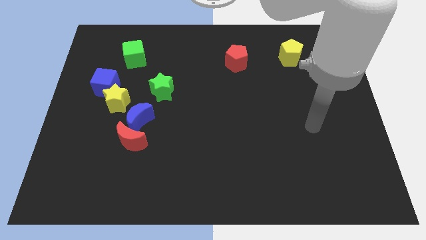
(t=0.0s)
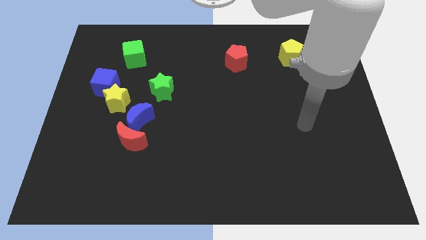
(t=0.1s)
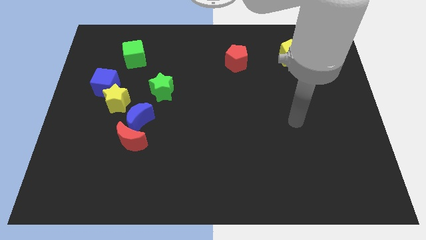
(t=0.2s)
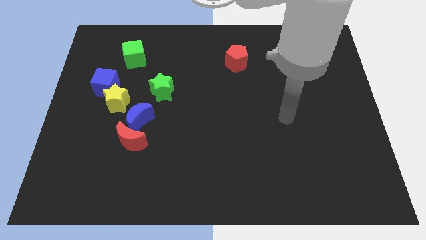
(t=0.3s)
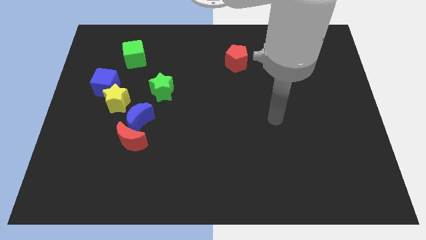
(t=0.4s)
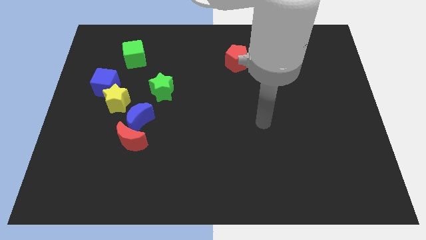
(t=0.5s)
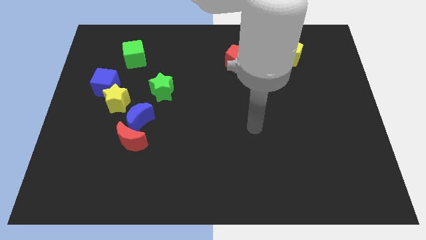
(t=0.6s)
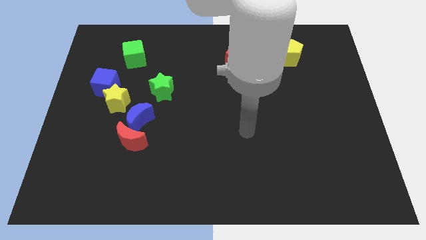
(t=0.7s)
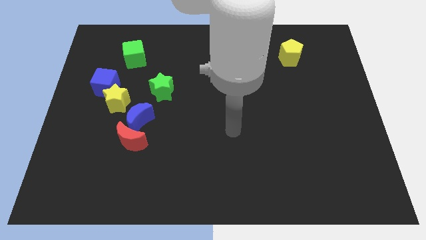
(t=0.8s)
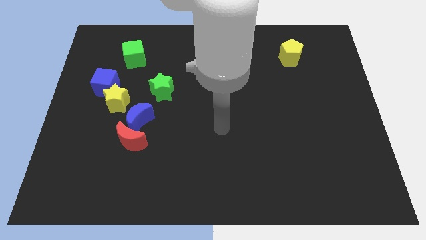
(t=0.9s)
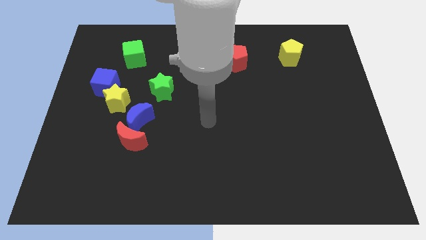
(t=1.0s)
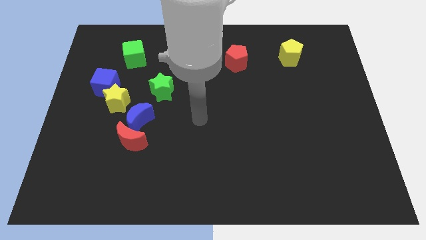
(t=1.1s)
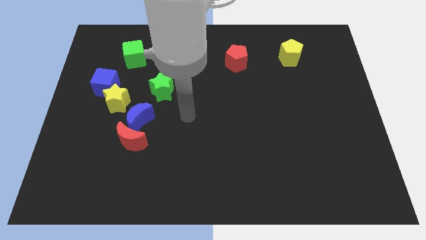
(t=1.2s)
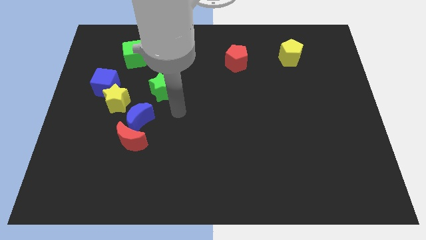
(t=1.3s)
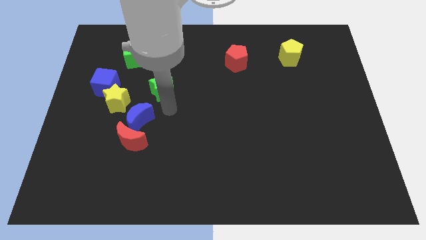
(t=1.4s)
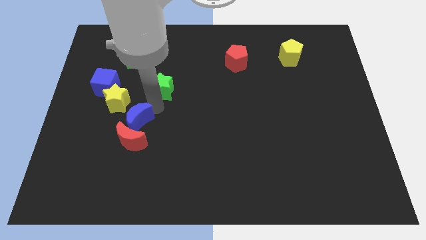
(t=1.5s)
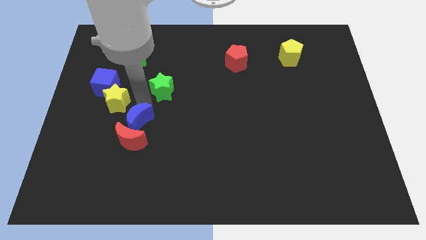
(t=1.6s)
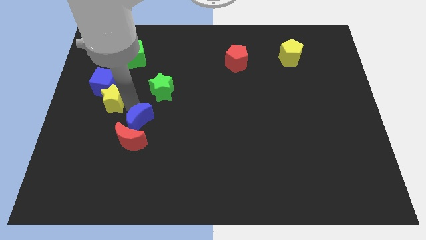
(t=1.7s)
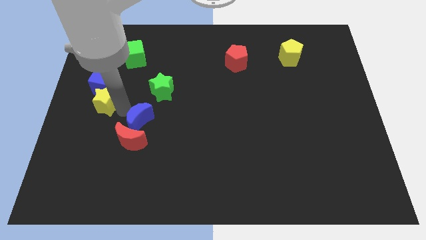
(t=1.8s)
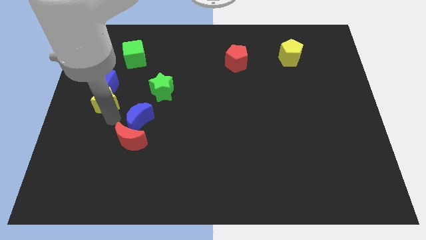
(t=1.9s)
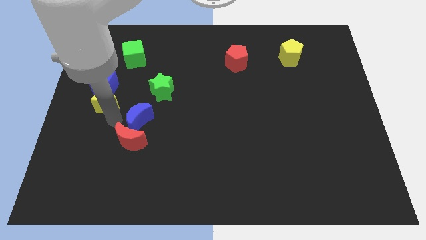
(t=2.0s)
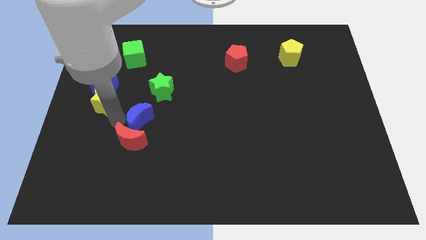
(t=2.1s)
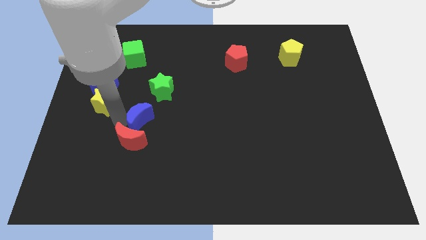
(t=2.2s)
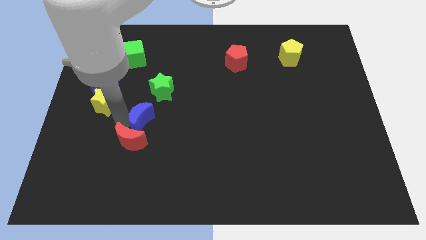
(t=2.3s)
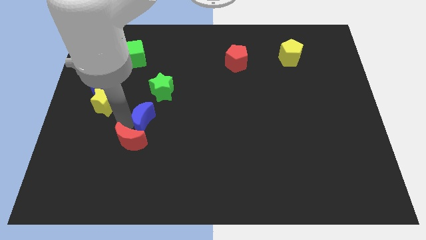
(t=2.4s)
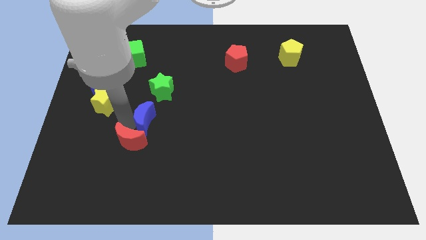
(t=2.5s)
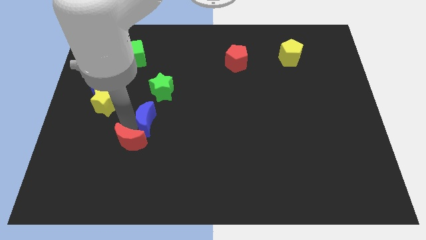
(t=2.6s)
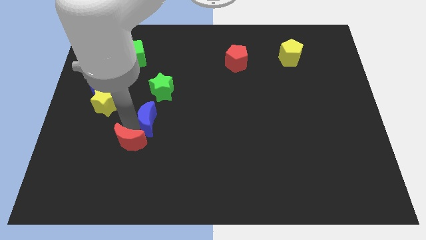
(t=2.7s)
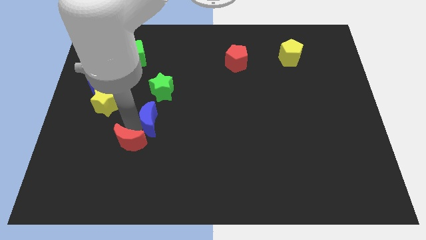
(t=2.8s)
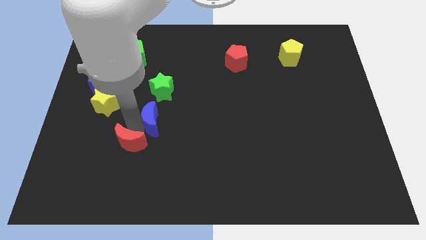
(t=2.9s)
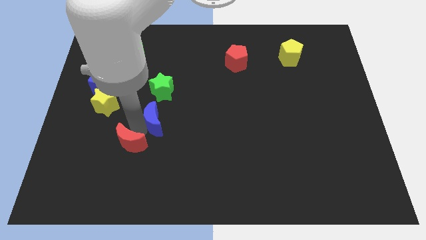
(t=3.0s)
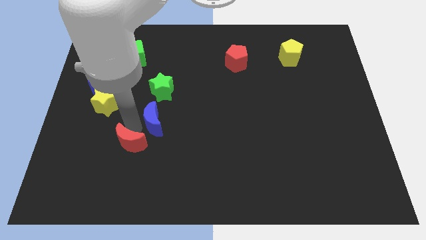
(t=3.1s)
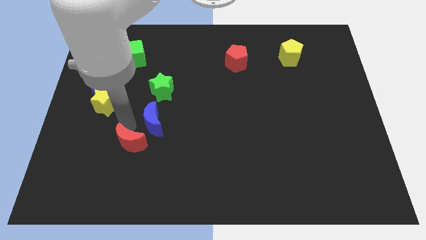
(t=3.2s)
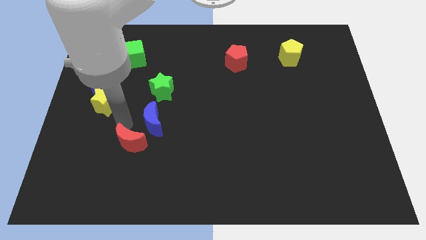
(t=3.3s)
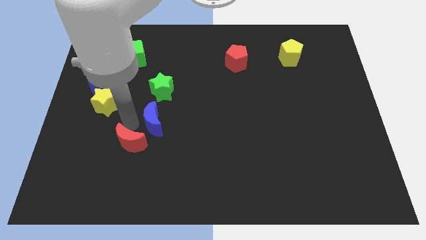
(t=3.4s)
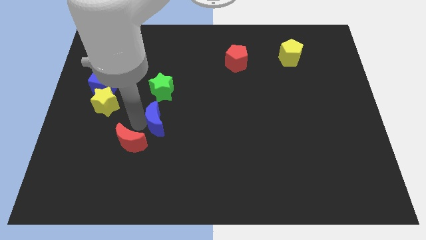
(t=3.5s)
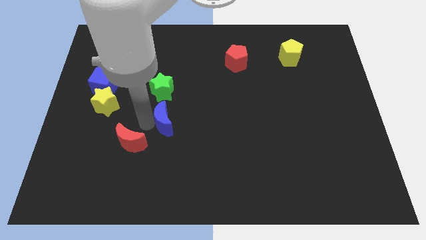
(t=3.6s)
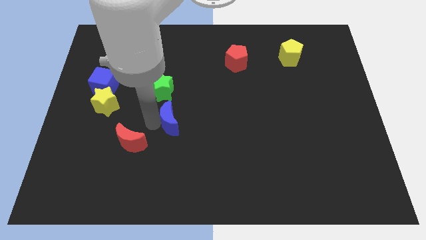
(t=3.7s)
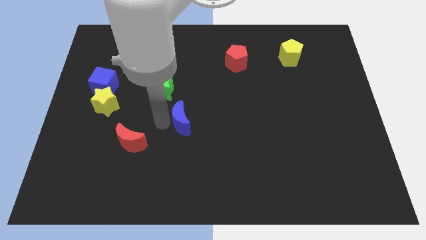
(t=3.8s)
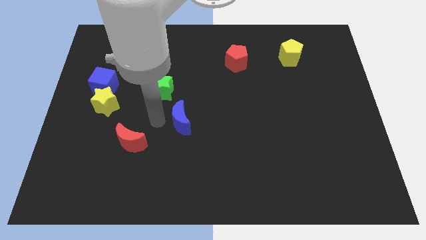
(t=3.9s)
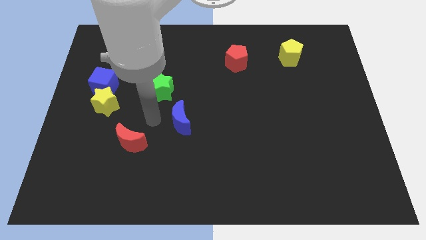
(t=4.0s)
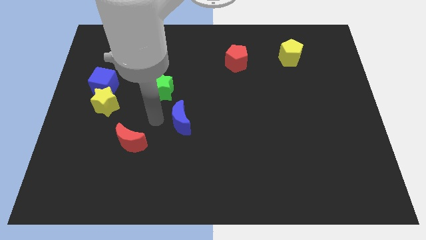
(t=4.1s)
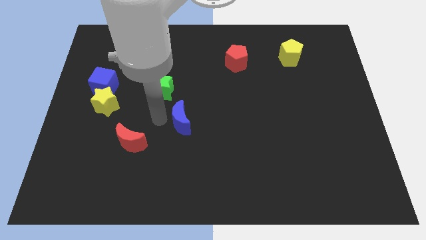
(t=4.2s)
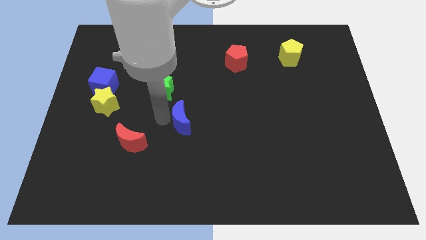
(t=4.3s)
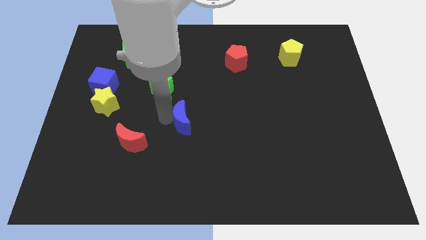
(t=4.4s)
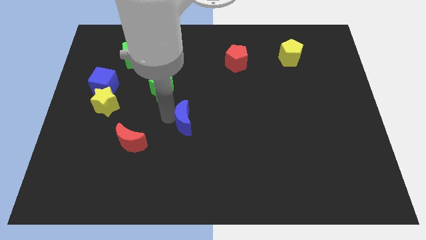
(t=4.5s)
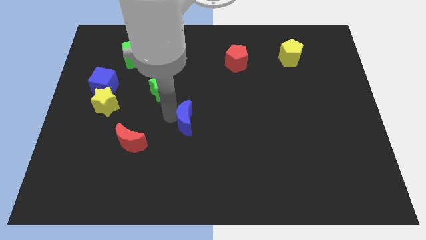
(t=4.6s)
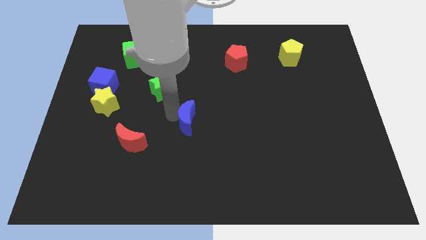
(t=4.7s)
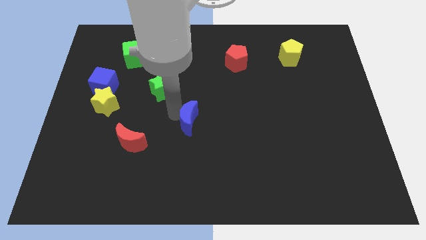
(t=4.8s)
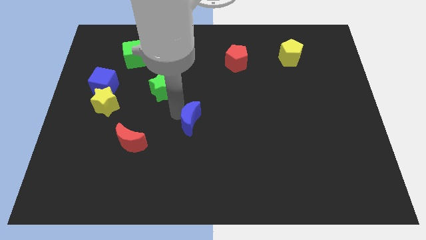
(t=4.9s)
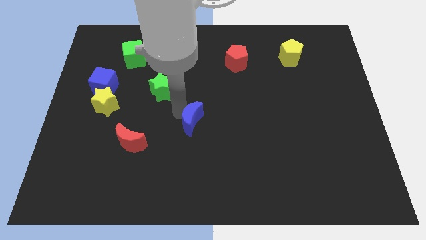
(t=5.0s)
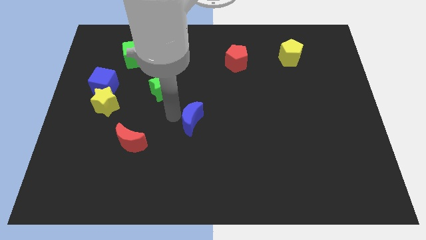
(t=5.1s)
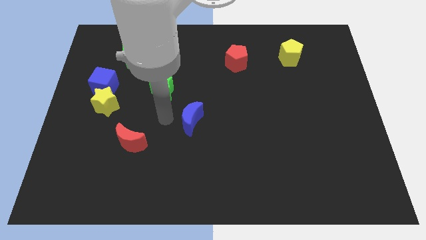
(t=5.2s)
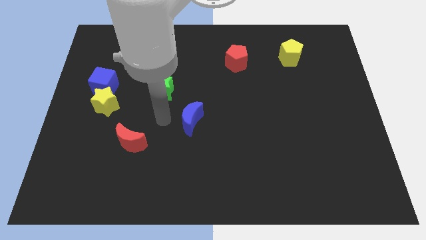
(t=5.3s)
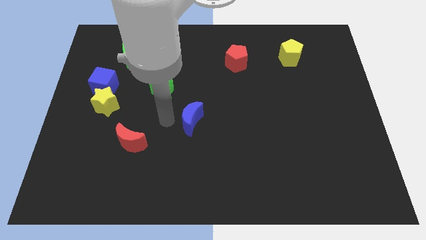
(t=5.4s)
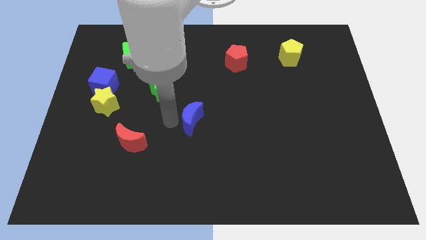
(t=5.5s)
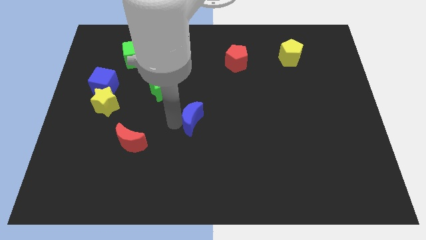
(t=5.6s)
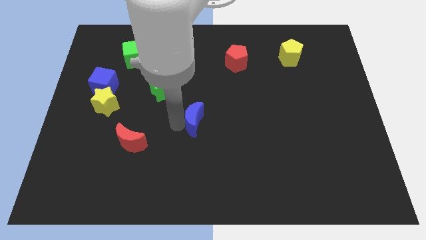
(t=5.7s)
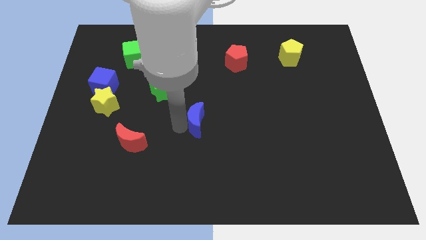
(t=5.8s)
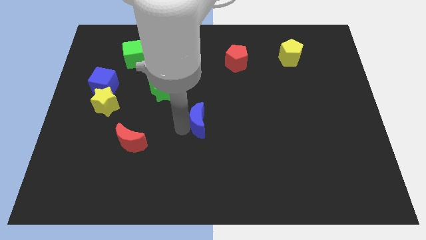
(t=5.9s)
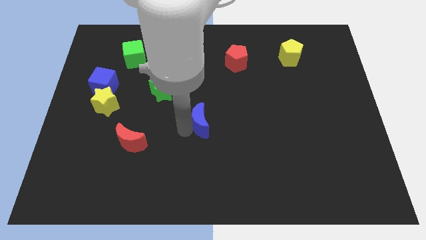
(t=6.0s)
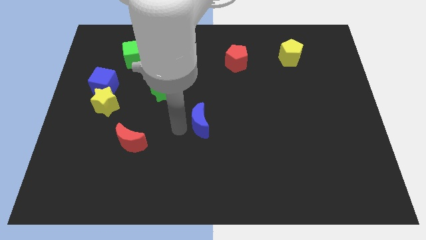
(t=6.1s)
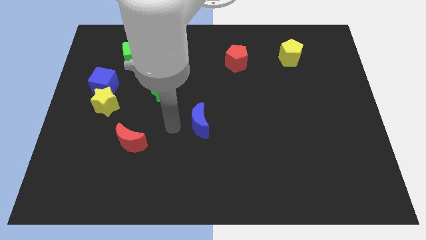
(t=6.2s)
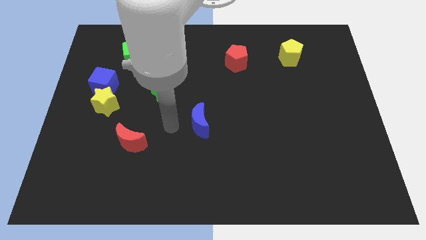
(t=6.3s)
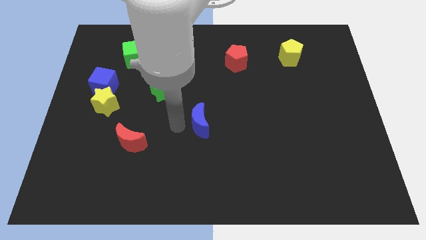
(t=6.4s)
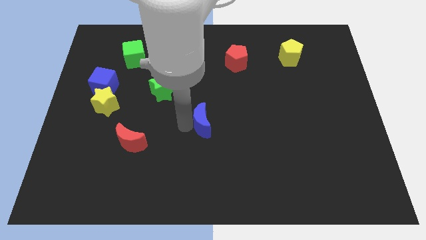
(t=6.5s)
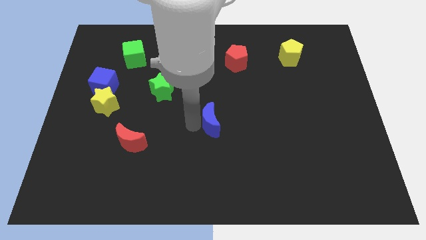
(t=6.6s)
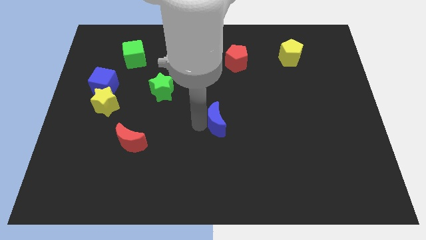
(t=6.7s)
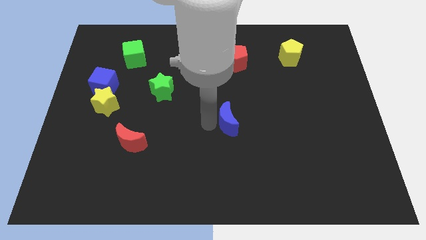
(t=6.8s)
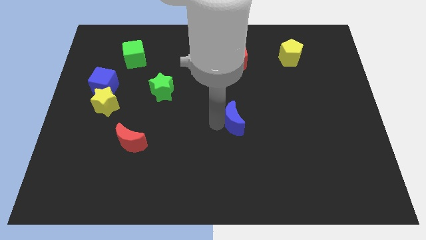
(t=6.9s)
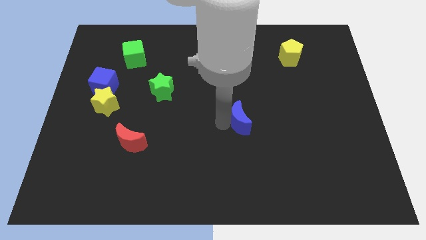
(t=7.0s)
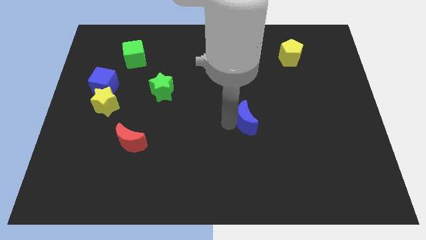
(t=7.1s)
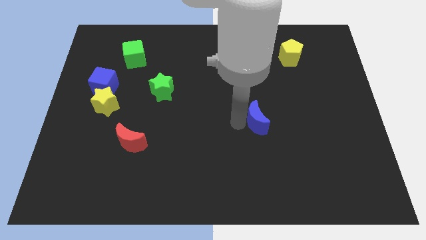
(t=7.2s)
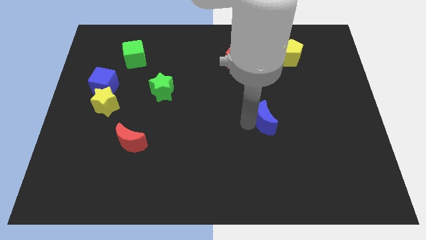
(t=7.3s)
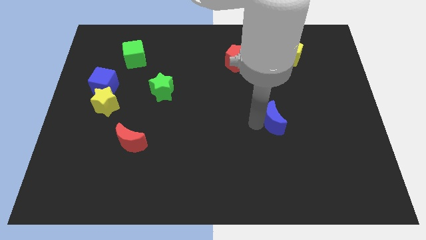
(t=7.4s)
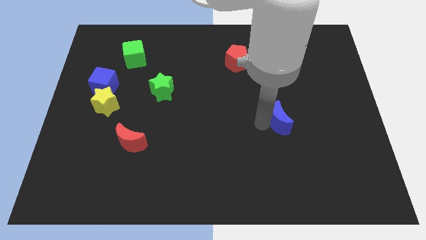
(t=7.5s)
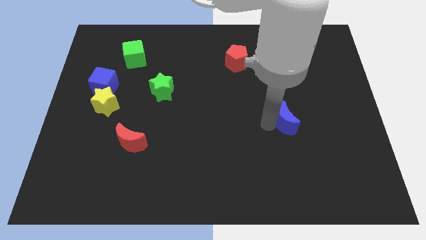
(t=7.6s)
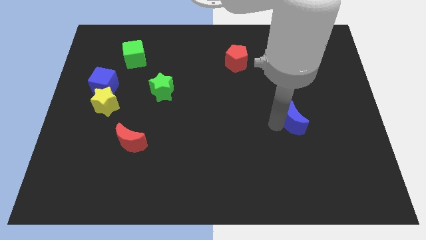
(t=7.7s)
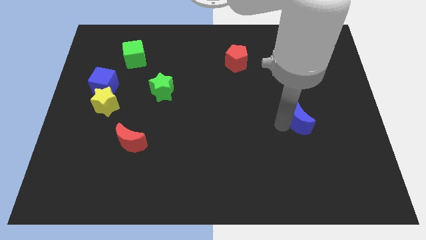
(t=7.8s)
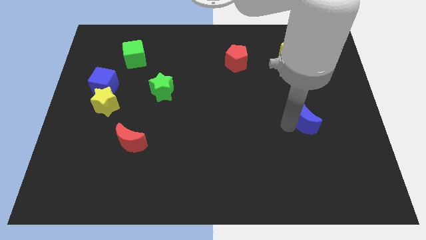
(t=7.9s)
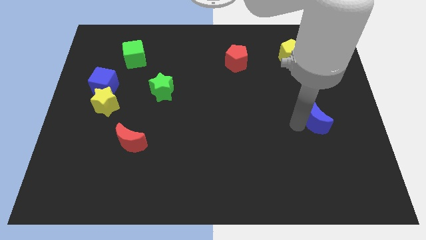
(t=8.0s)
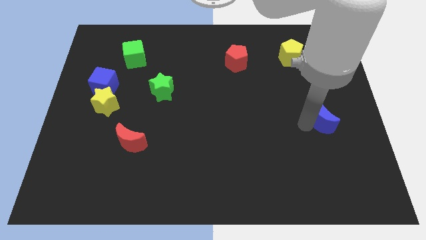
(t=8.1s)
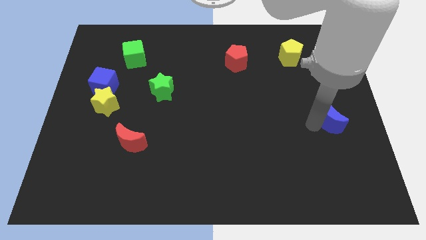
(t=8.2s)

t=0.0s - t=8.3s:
slide the blue moon to the center right
